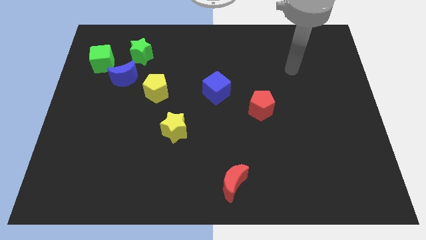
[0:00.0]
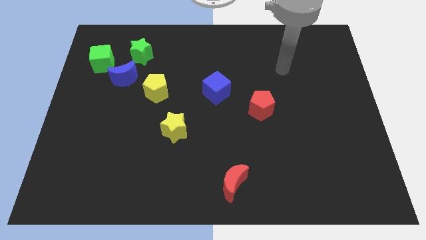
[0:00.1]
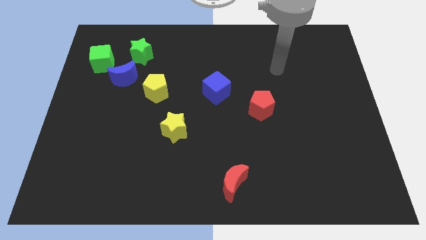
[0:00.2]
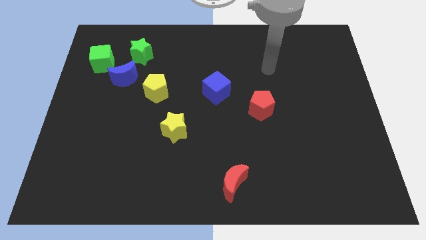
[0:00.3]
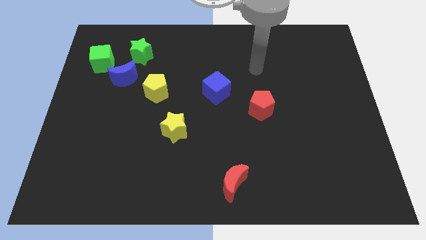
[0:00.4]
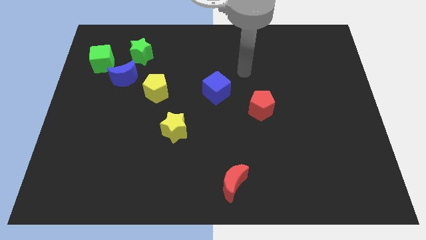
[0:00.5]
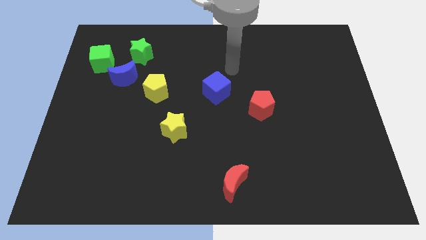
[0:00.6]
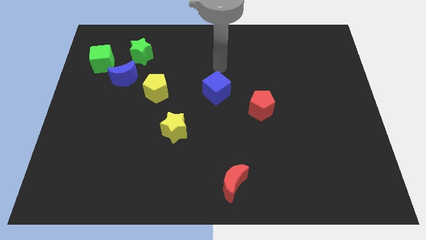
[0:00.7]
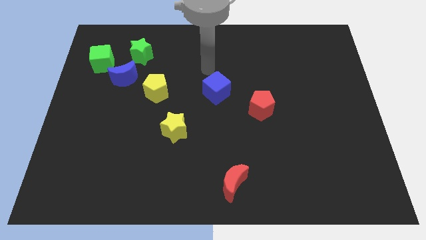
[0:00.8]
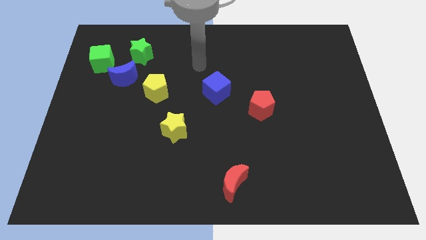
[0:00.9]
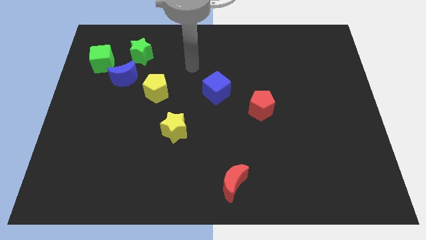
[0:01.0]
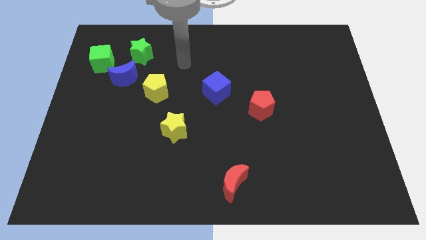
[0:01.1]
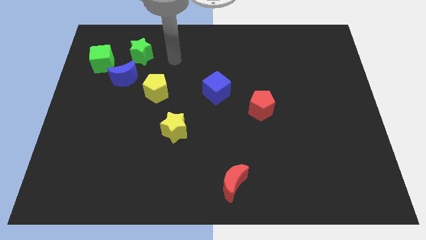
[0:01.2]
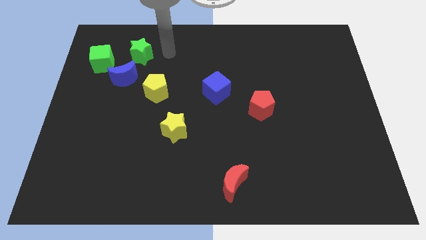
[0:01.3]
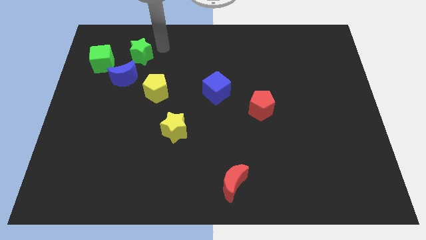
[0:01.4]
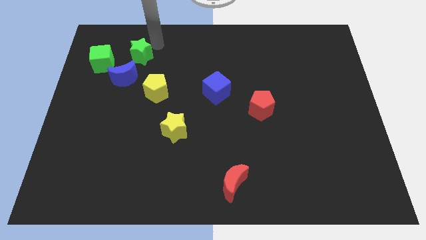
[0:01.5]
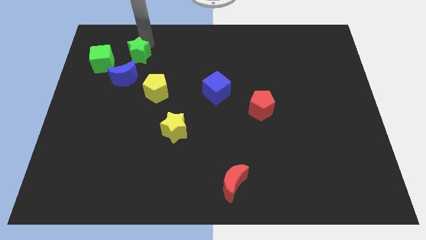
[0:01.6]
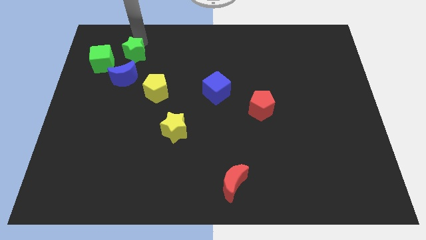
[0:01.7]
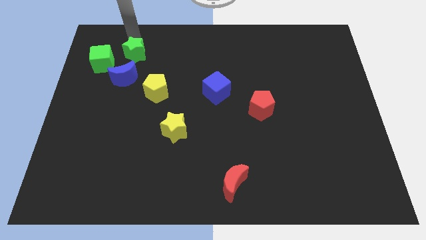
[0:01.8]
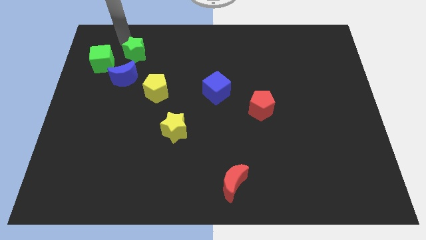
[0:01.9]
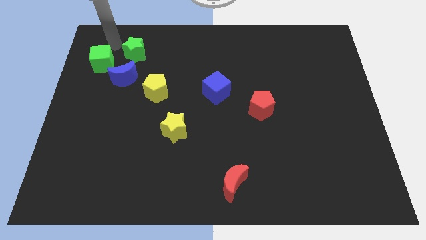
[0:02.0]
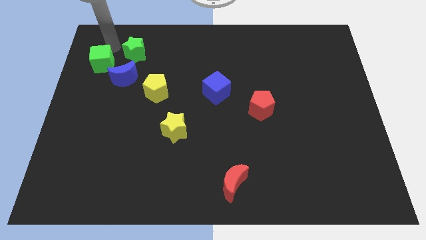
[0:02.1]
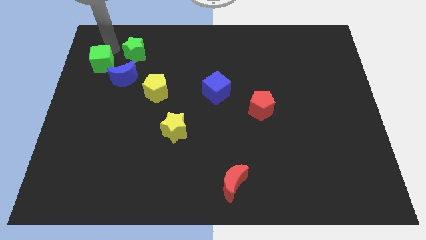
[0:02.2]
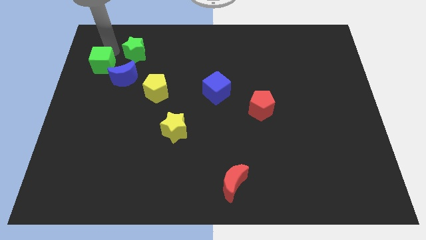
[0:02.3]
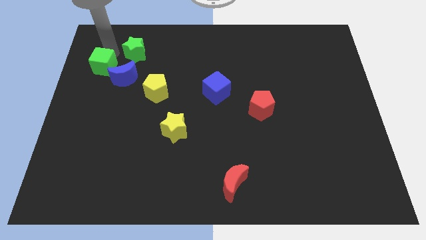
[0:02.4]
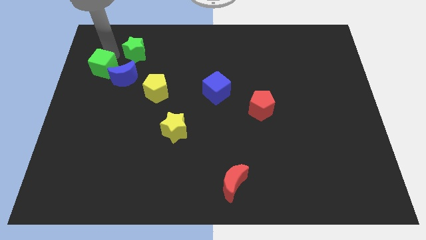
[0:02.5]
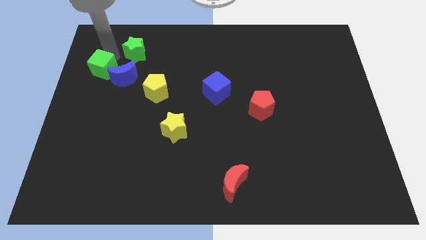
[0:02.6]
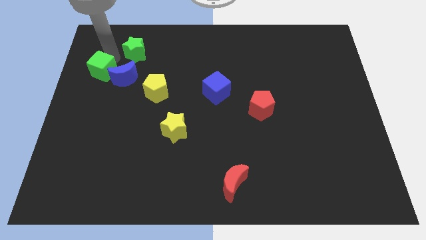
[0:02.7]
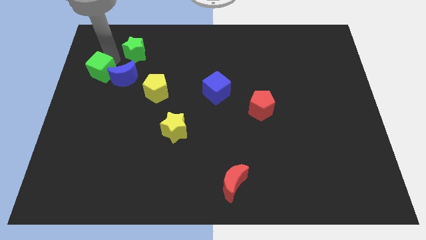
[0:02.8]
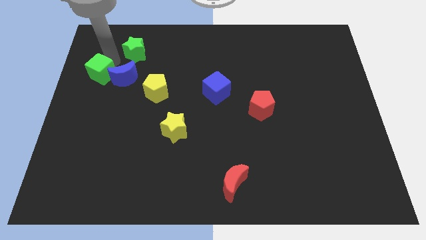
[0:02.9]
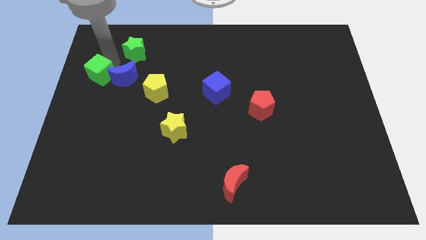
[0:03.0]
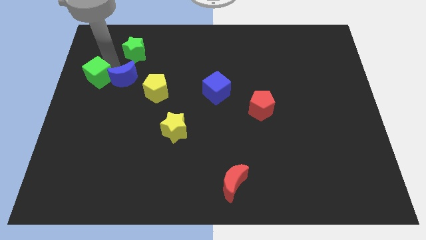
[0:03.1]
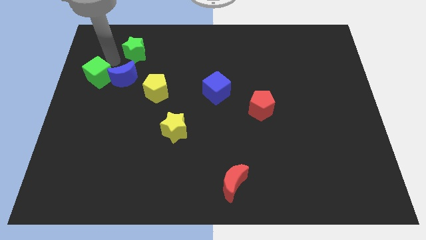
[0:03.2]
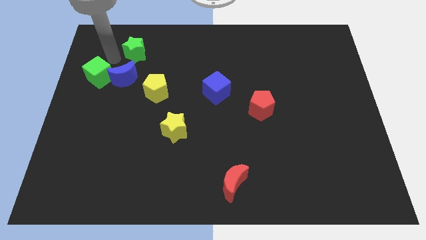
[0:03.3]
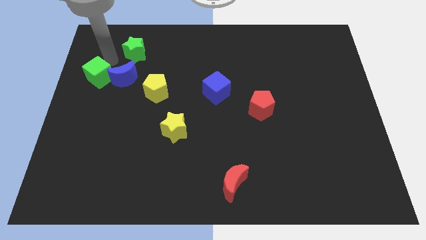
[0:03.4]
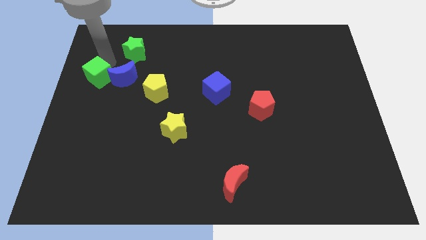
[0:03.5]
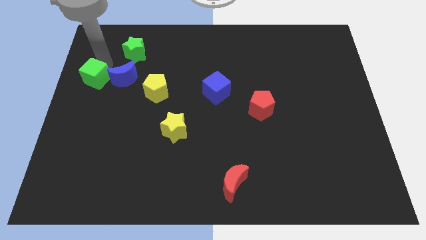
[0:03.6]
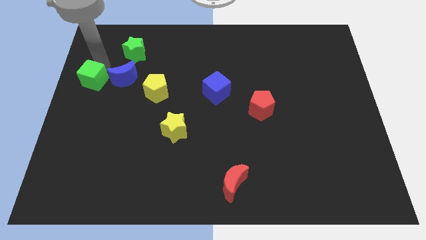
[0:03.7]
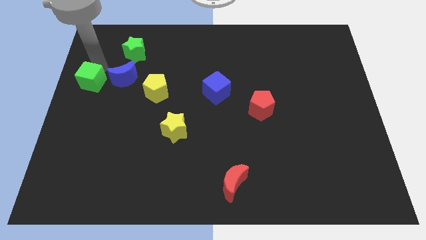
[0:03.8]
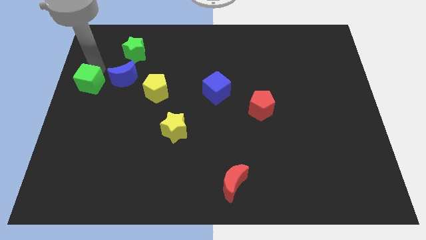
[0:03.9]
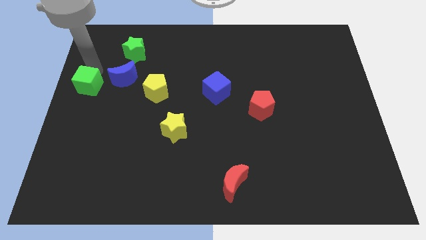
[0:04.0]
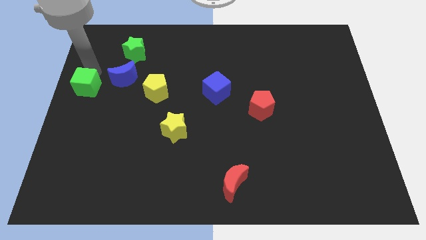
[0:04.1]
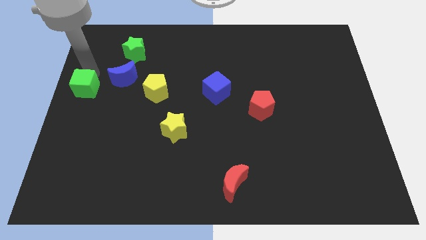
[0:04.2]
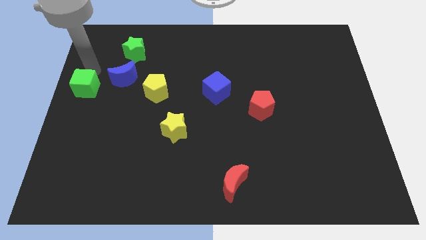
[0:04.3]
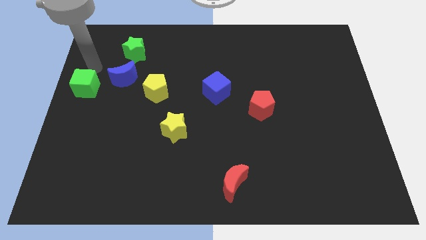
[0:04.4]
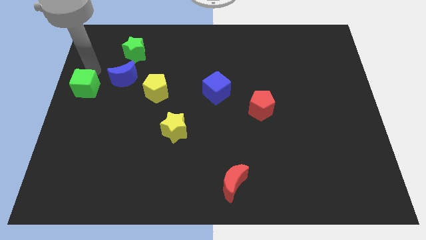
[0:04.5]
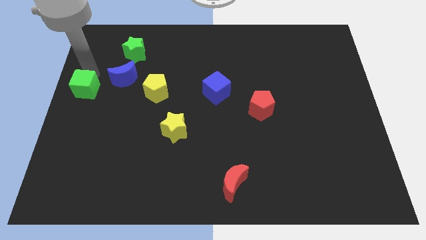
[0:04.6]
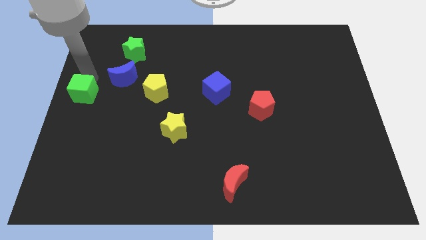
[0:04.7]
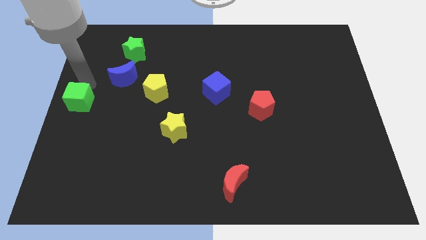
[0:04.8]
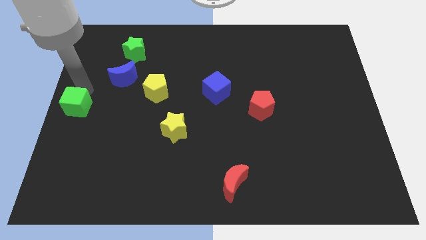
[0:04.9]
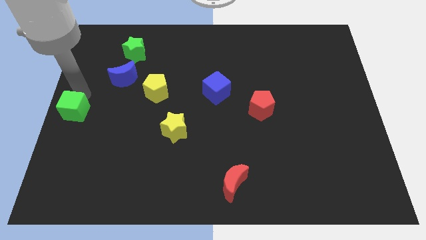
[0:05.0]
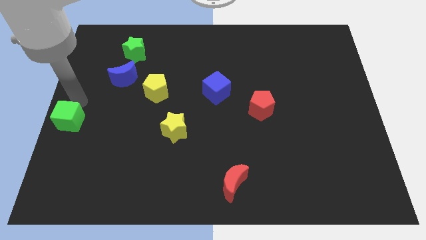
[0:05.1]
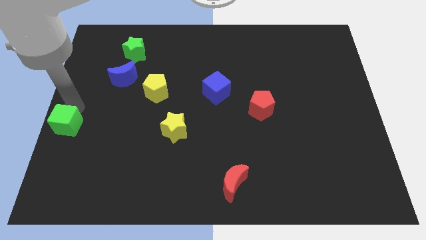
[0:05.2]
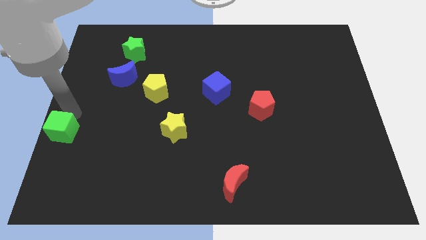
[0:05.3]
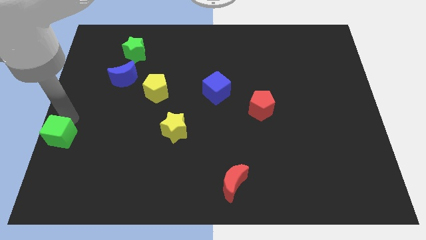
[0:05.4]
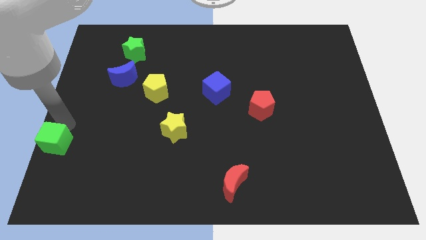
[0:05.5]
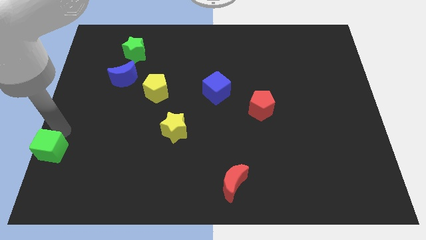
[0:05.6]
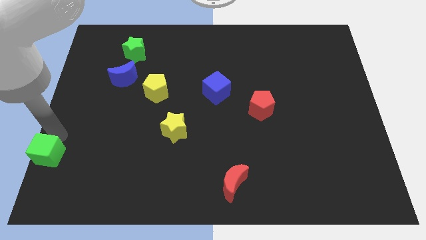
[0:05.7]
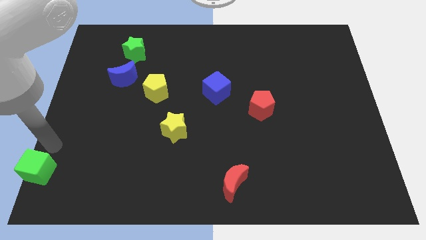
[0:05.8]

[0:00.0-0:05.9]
push the green cube to the lower left corner

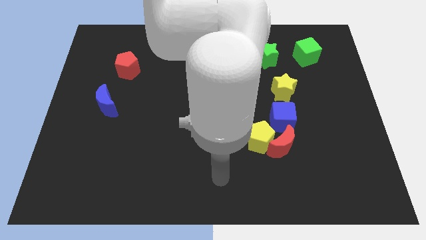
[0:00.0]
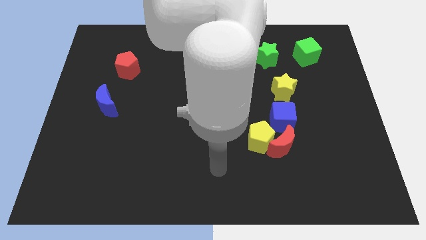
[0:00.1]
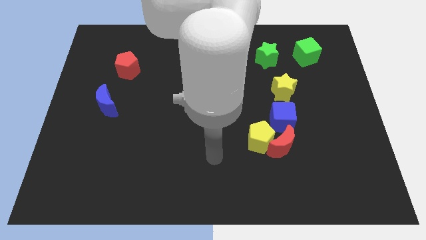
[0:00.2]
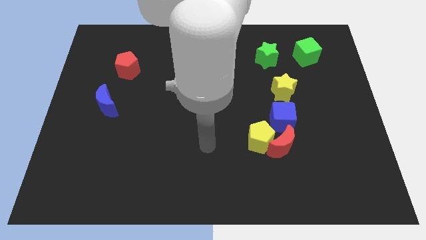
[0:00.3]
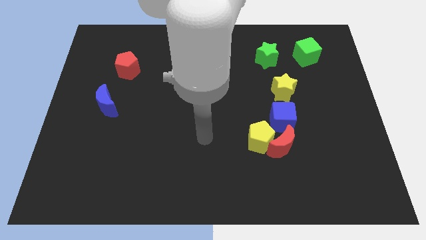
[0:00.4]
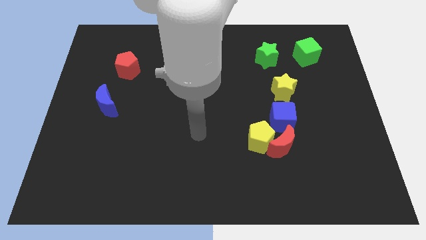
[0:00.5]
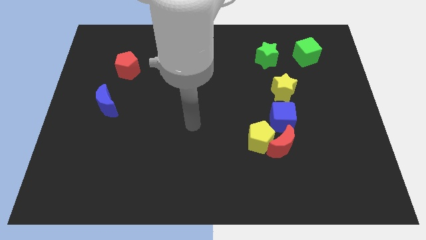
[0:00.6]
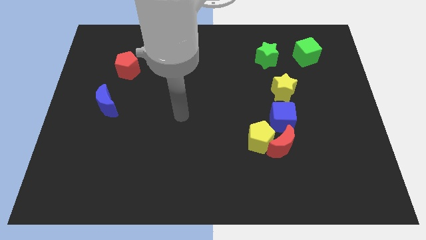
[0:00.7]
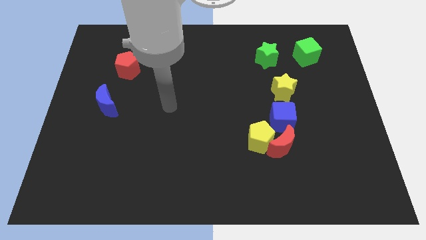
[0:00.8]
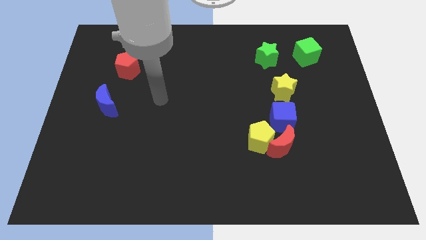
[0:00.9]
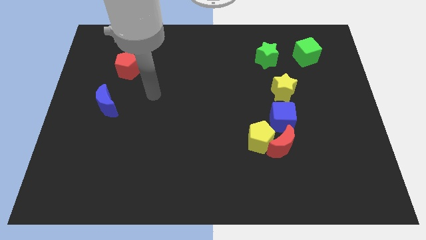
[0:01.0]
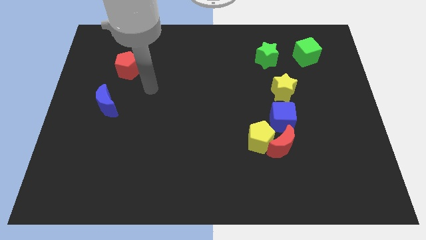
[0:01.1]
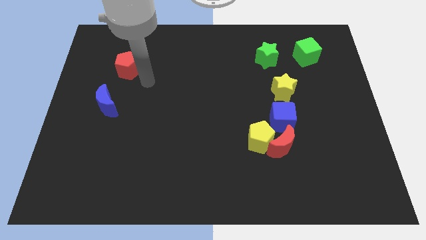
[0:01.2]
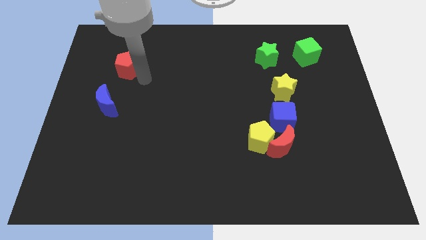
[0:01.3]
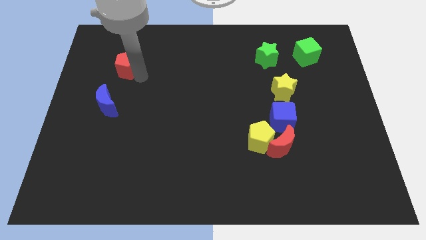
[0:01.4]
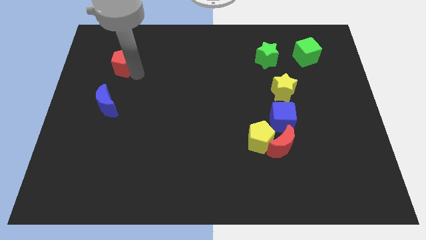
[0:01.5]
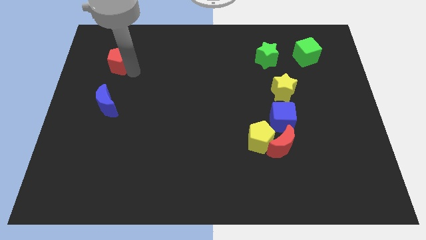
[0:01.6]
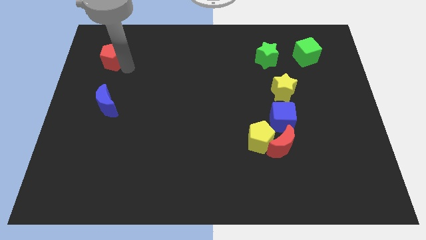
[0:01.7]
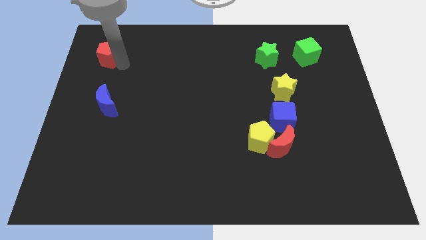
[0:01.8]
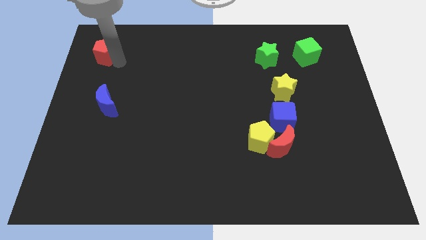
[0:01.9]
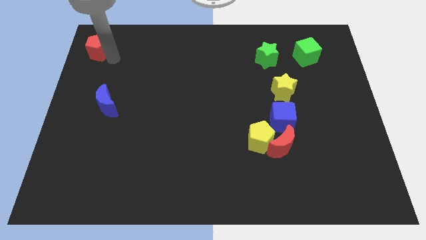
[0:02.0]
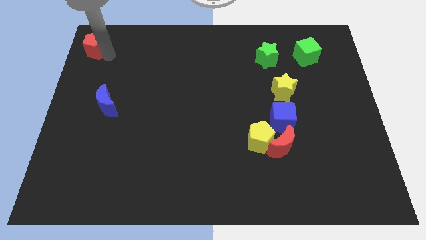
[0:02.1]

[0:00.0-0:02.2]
push the red pentagon to the top left
